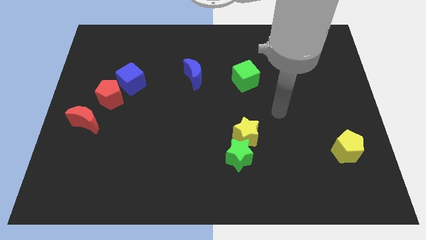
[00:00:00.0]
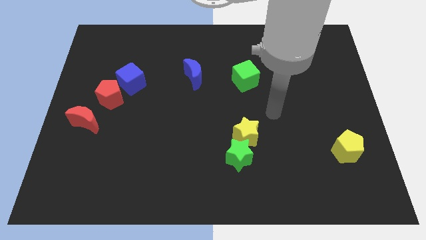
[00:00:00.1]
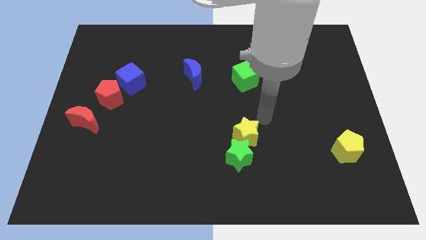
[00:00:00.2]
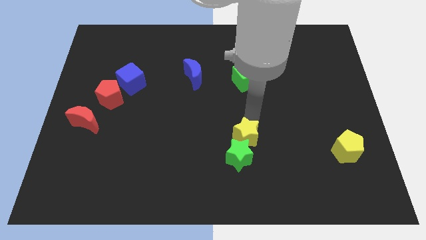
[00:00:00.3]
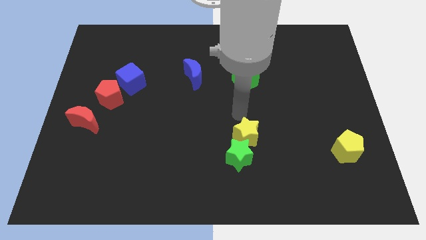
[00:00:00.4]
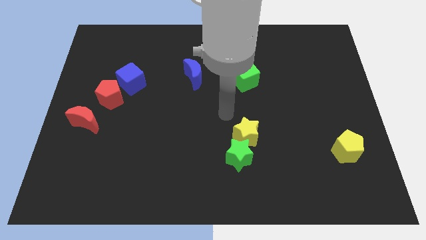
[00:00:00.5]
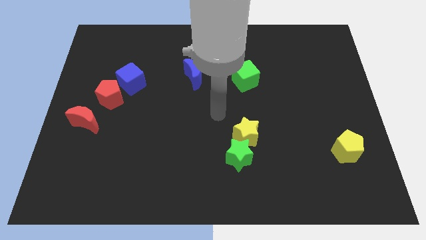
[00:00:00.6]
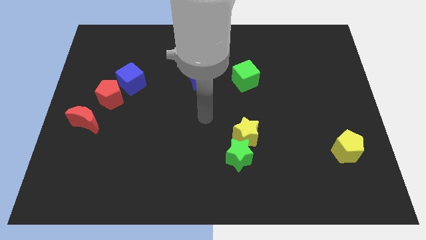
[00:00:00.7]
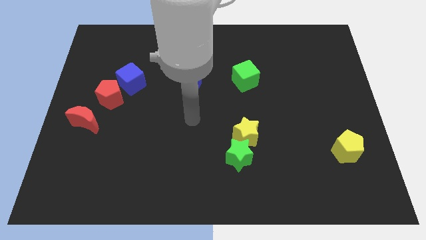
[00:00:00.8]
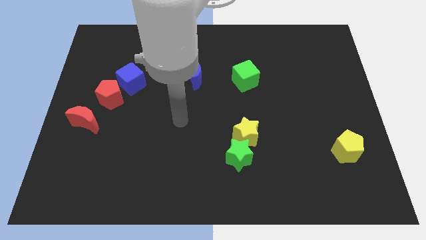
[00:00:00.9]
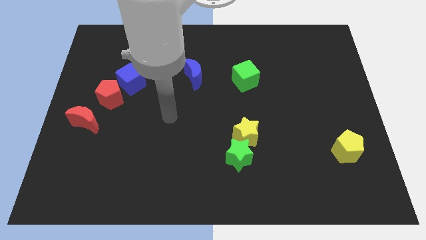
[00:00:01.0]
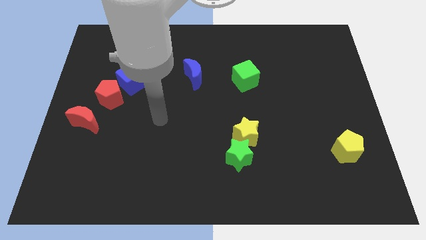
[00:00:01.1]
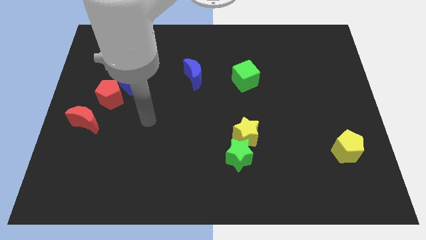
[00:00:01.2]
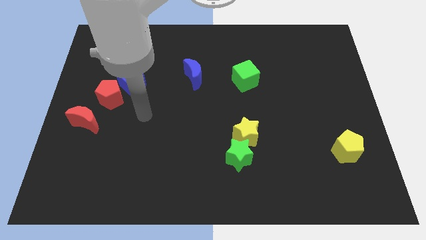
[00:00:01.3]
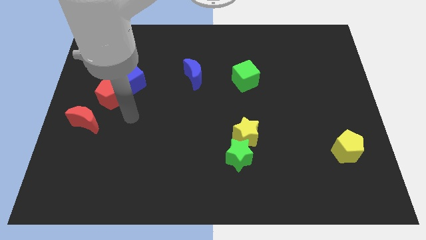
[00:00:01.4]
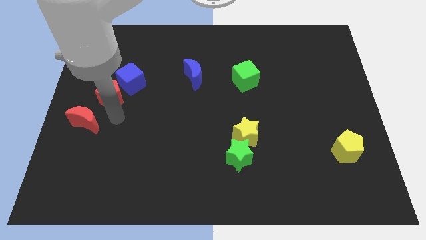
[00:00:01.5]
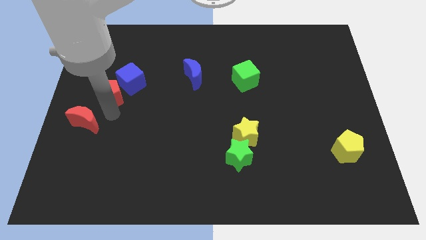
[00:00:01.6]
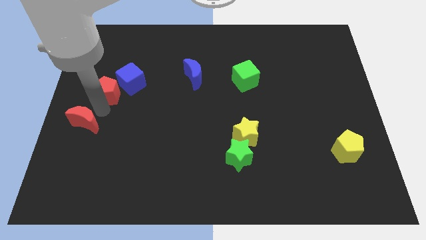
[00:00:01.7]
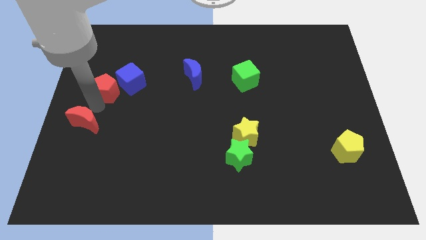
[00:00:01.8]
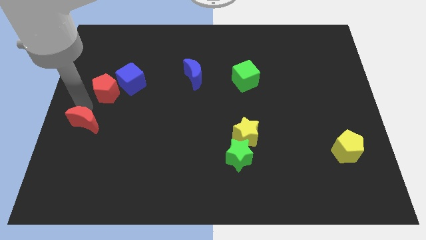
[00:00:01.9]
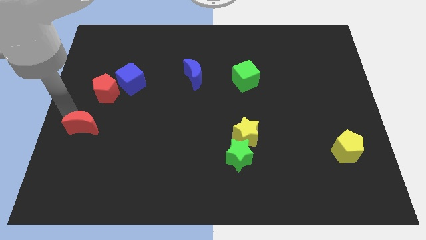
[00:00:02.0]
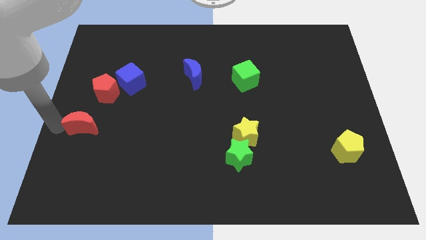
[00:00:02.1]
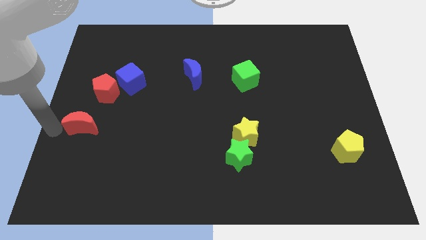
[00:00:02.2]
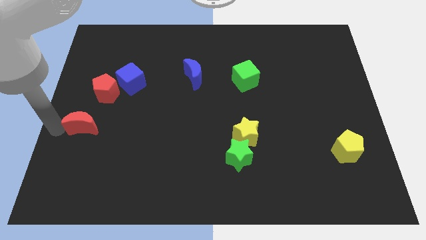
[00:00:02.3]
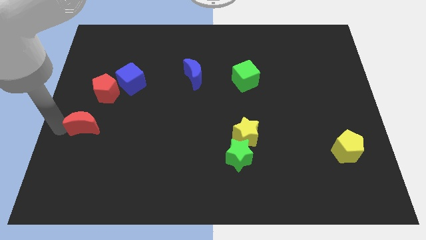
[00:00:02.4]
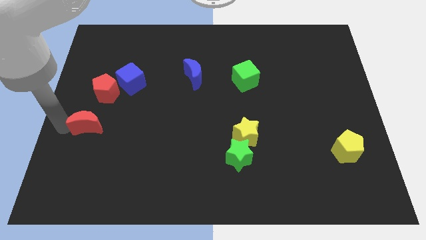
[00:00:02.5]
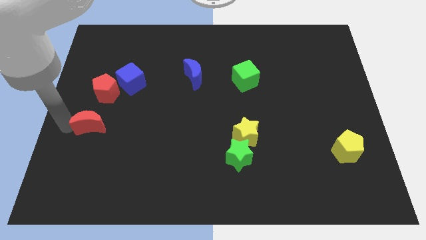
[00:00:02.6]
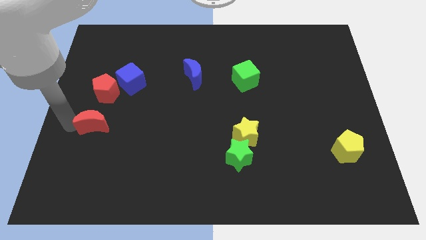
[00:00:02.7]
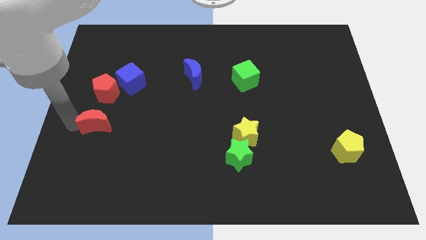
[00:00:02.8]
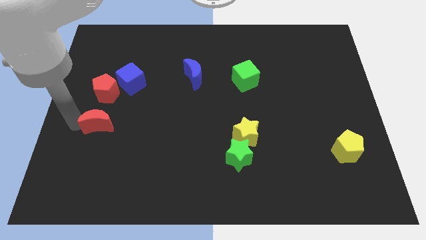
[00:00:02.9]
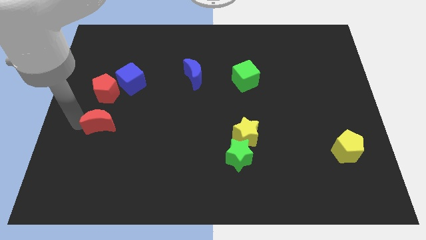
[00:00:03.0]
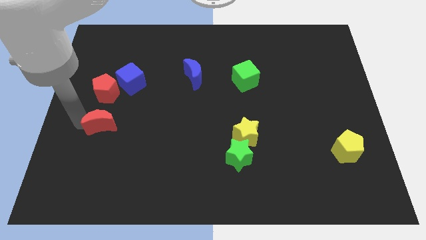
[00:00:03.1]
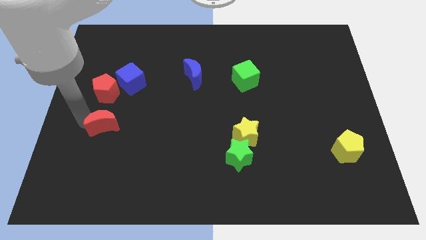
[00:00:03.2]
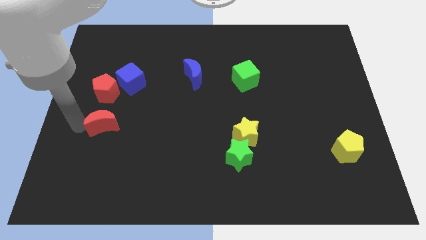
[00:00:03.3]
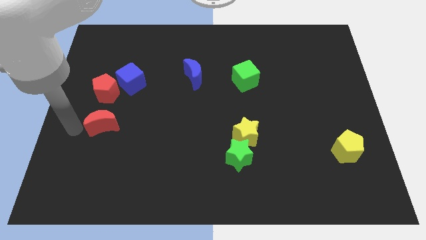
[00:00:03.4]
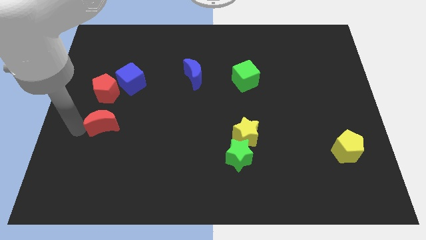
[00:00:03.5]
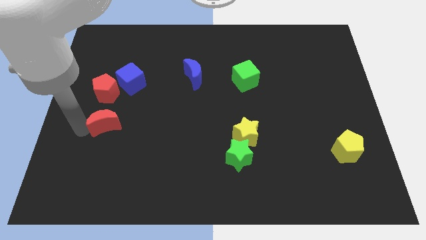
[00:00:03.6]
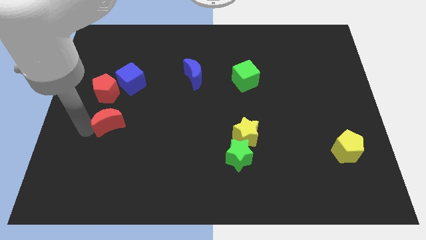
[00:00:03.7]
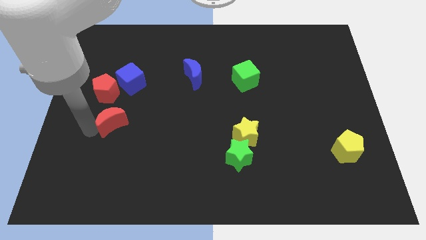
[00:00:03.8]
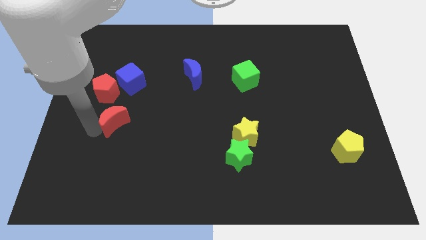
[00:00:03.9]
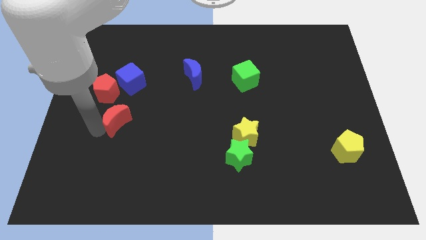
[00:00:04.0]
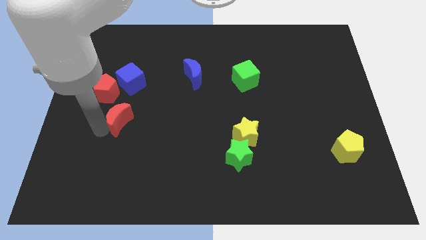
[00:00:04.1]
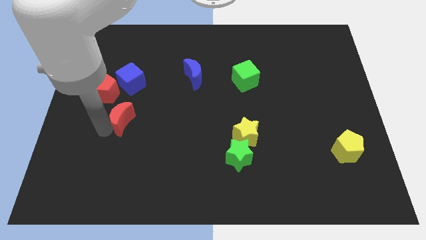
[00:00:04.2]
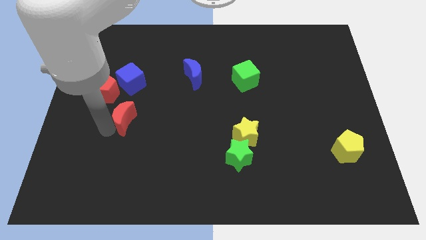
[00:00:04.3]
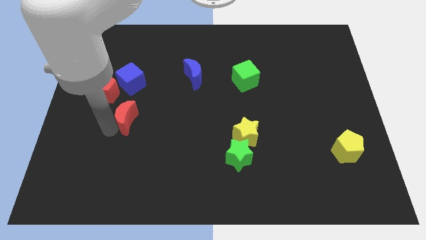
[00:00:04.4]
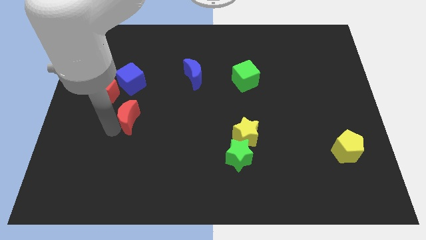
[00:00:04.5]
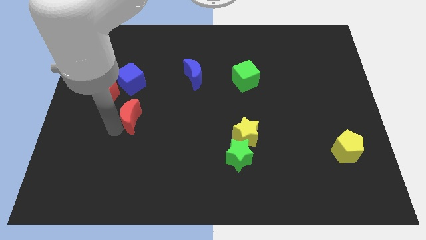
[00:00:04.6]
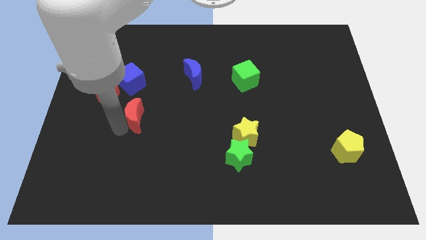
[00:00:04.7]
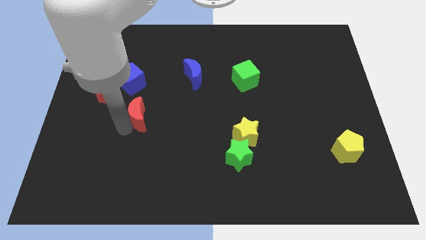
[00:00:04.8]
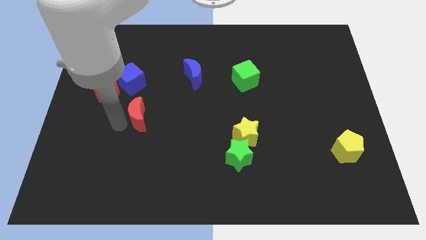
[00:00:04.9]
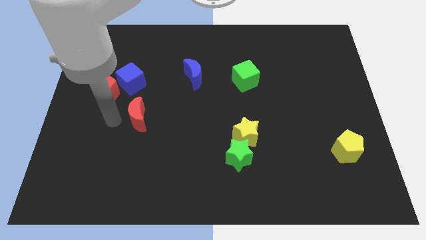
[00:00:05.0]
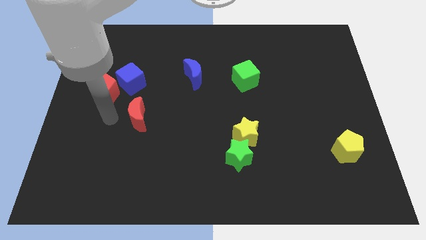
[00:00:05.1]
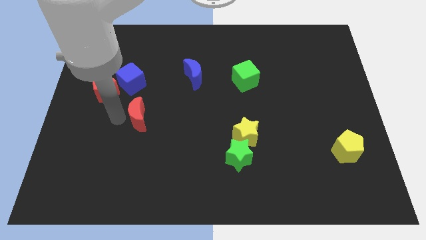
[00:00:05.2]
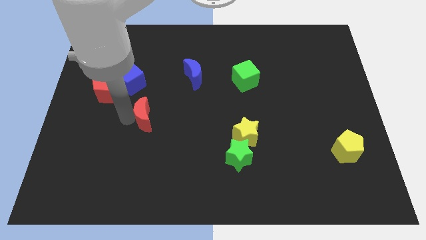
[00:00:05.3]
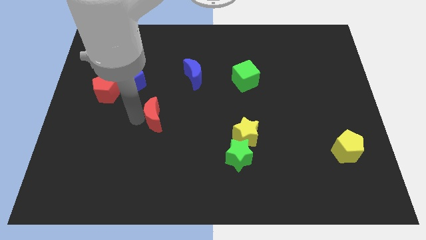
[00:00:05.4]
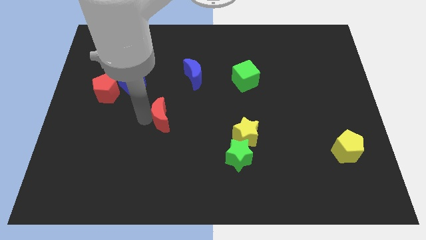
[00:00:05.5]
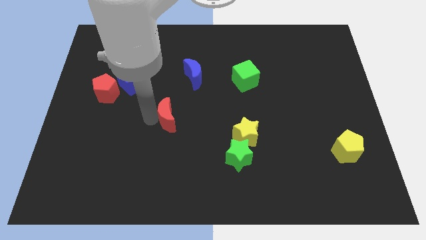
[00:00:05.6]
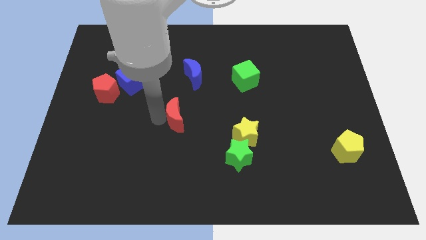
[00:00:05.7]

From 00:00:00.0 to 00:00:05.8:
move the red moon to the right

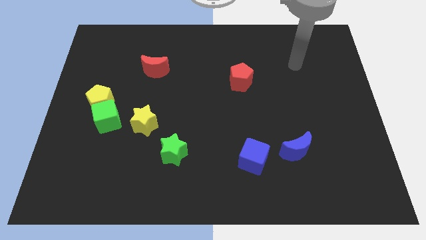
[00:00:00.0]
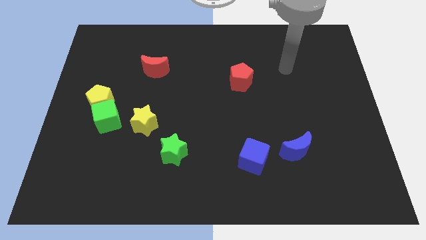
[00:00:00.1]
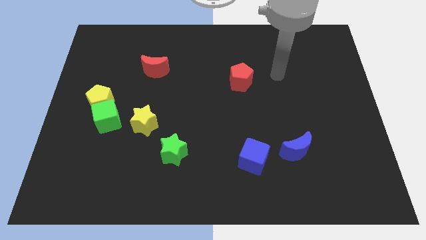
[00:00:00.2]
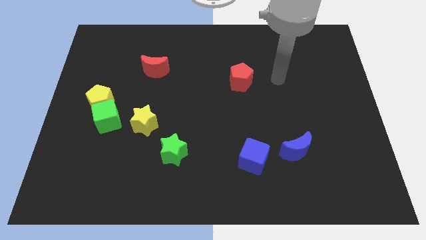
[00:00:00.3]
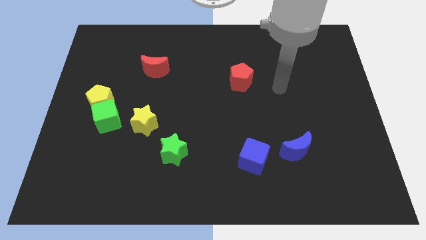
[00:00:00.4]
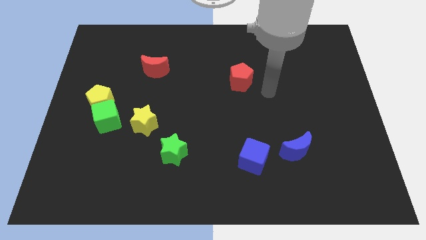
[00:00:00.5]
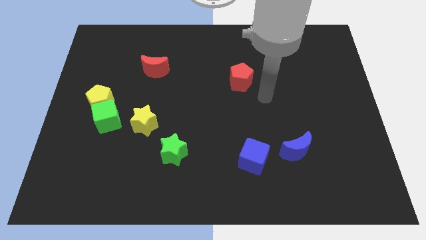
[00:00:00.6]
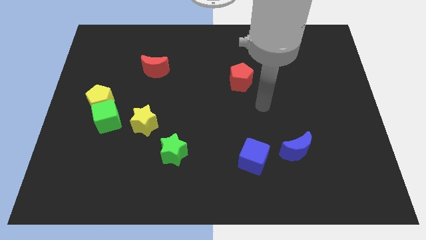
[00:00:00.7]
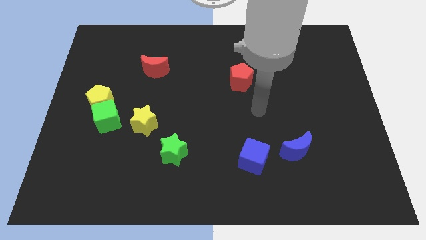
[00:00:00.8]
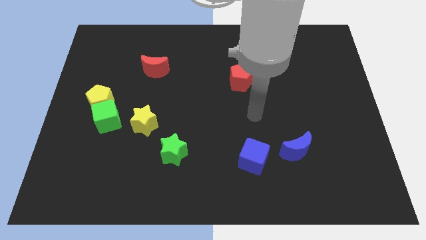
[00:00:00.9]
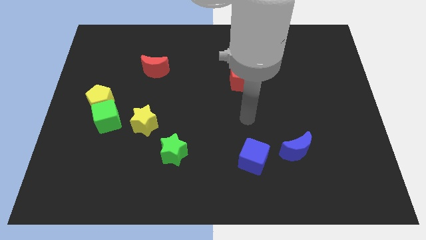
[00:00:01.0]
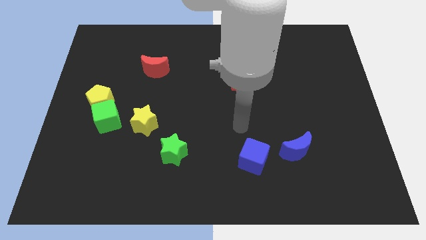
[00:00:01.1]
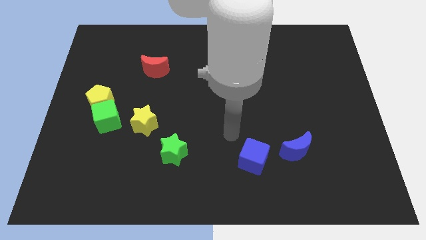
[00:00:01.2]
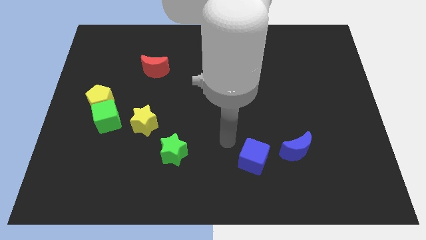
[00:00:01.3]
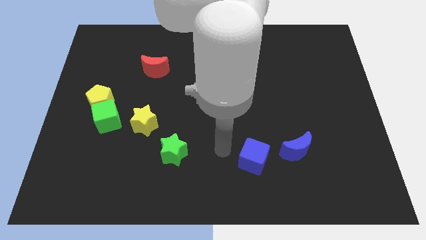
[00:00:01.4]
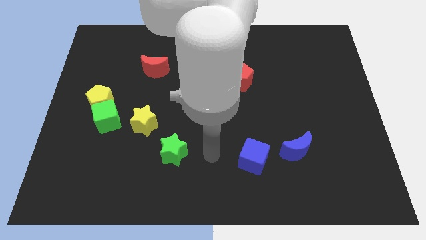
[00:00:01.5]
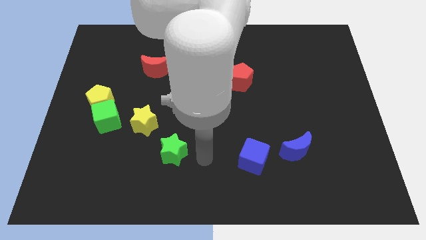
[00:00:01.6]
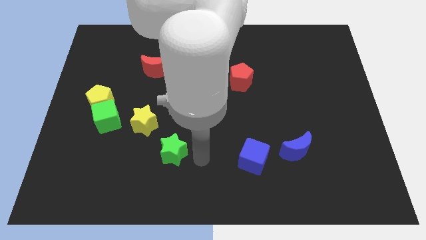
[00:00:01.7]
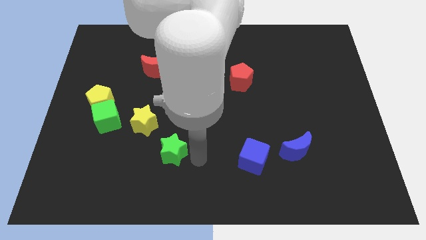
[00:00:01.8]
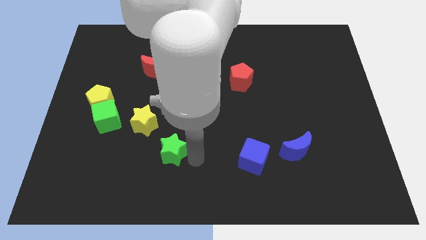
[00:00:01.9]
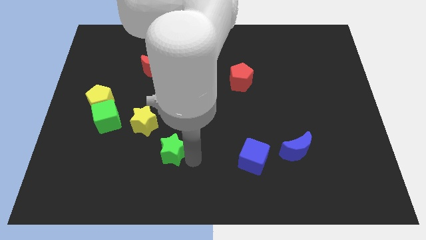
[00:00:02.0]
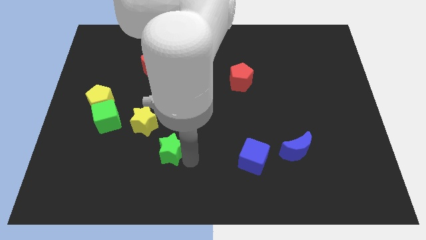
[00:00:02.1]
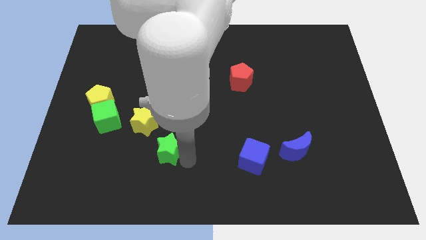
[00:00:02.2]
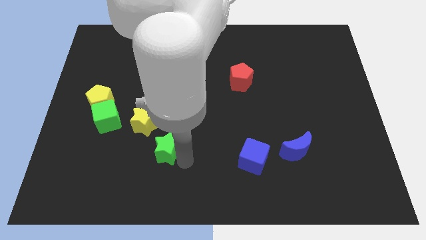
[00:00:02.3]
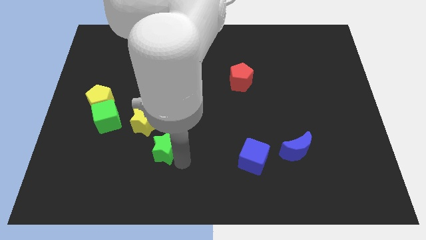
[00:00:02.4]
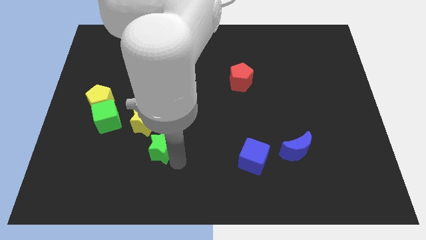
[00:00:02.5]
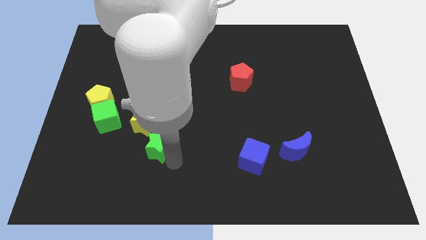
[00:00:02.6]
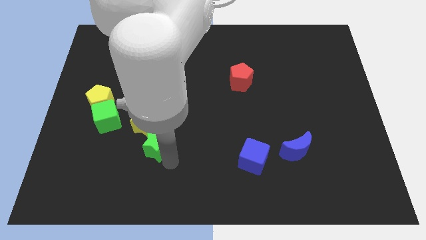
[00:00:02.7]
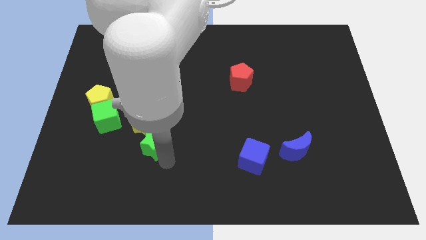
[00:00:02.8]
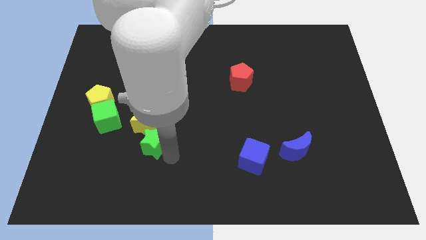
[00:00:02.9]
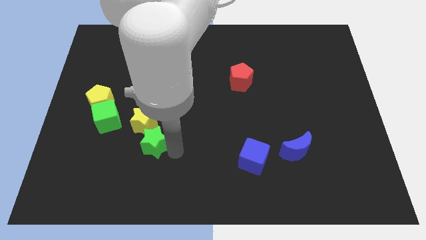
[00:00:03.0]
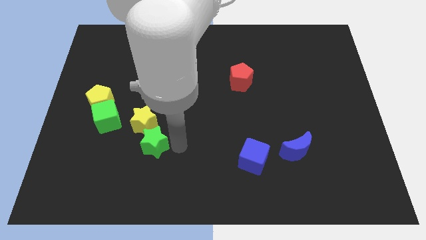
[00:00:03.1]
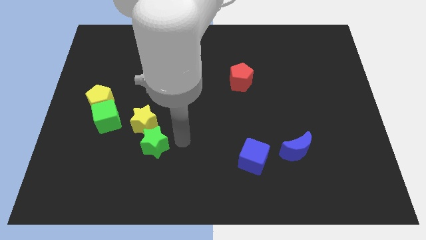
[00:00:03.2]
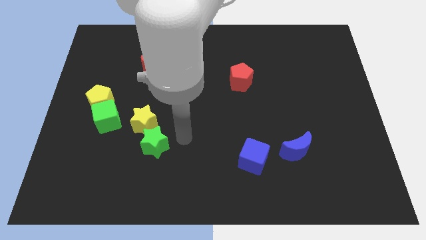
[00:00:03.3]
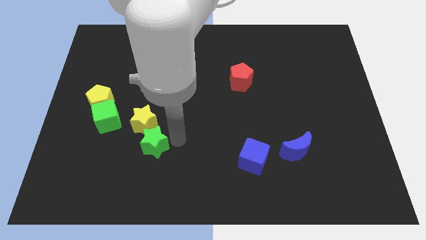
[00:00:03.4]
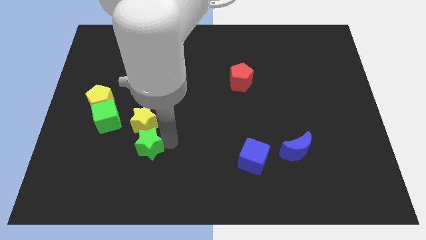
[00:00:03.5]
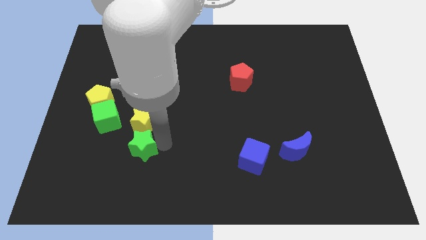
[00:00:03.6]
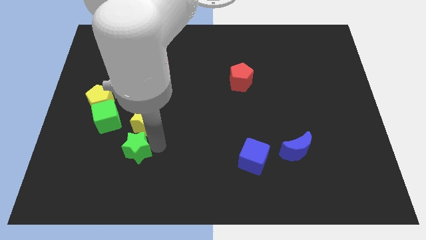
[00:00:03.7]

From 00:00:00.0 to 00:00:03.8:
slightly push the green star to the left
